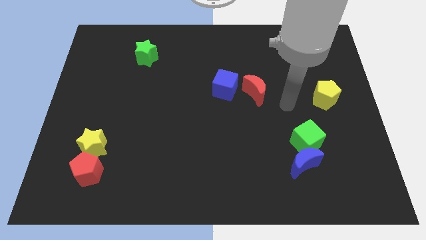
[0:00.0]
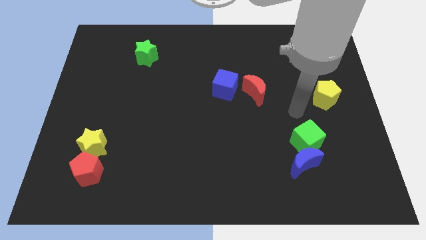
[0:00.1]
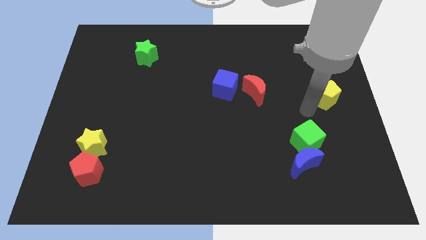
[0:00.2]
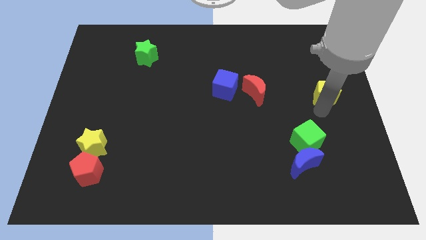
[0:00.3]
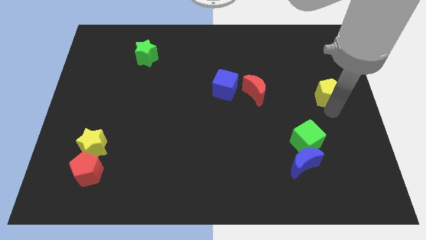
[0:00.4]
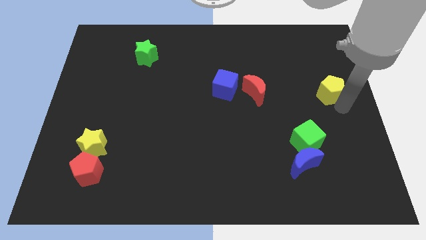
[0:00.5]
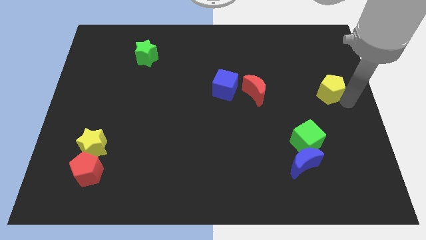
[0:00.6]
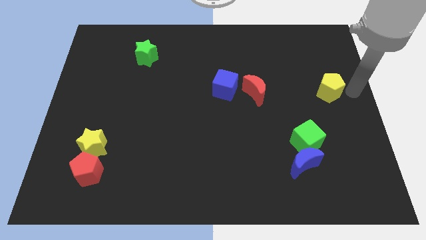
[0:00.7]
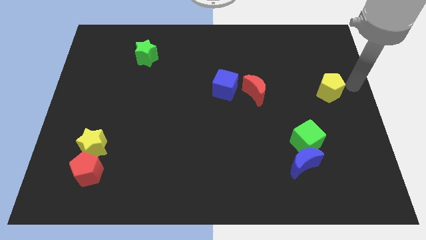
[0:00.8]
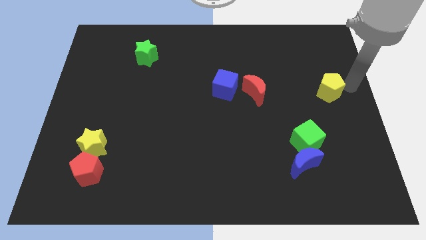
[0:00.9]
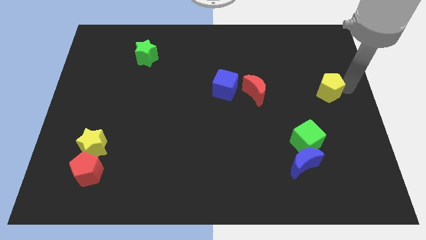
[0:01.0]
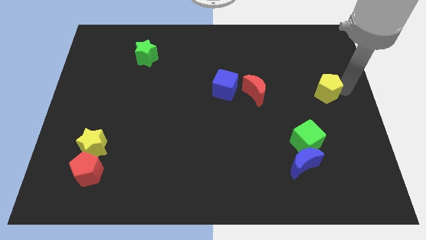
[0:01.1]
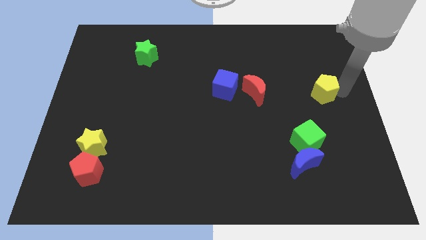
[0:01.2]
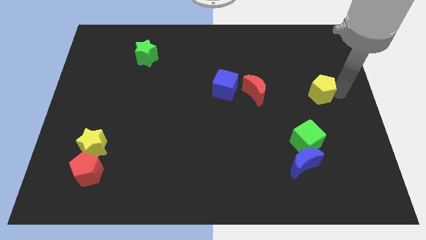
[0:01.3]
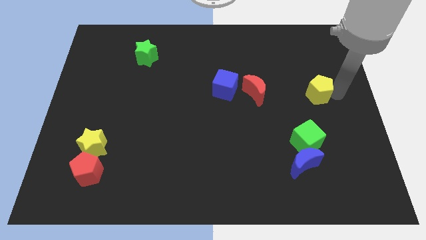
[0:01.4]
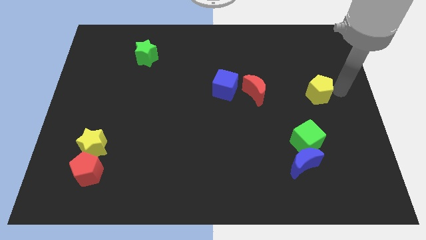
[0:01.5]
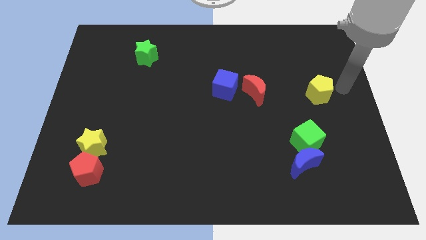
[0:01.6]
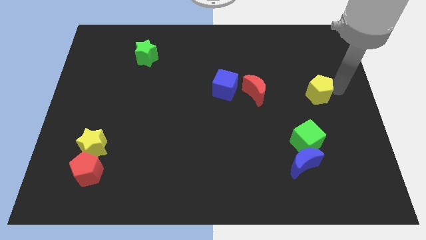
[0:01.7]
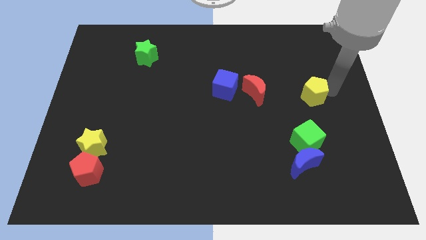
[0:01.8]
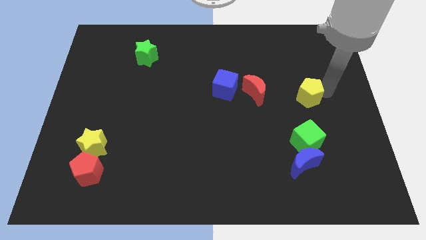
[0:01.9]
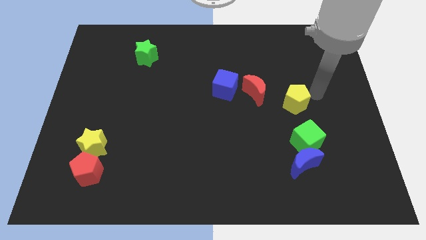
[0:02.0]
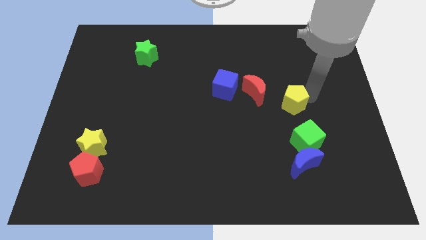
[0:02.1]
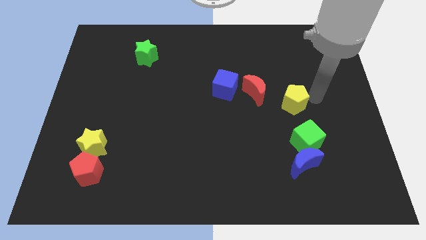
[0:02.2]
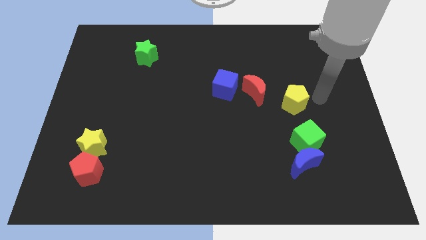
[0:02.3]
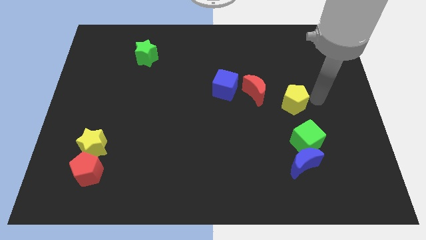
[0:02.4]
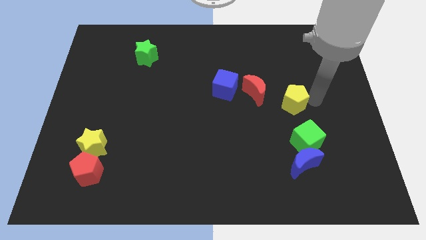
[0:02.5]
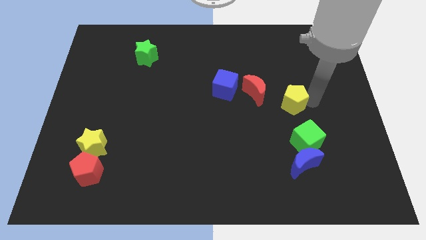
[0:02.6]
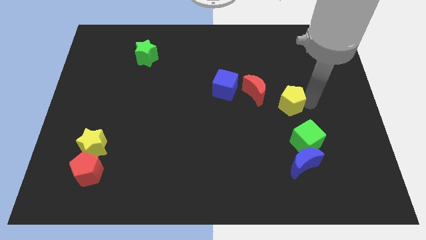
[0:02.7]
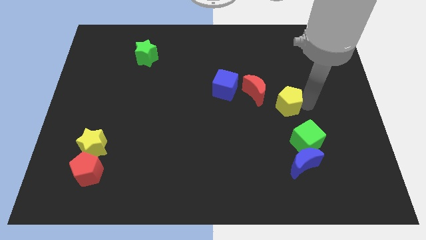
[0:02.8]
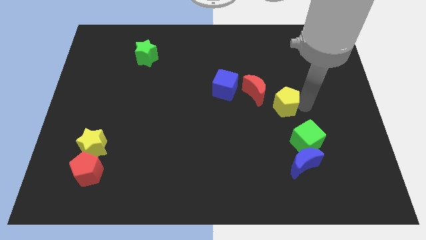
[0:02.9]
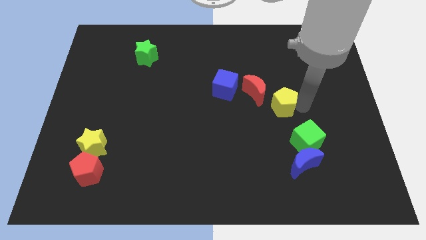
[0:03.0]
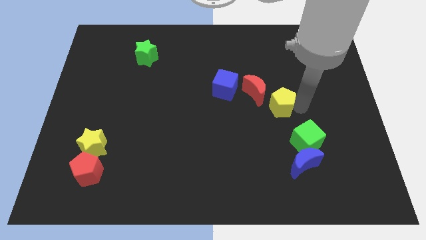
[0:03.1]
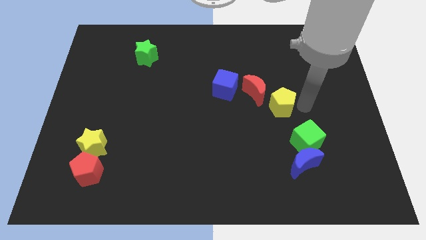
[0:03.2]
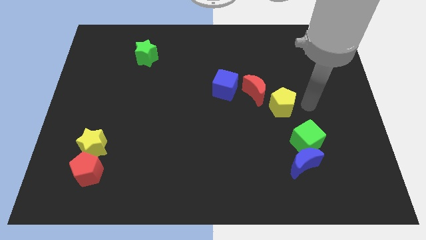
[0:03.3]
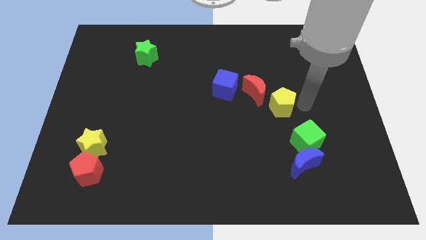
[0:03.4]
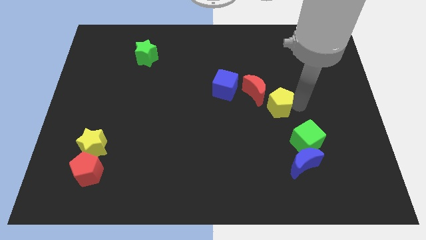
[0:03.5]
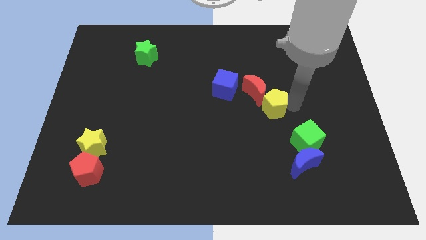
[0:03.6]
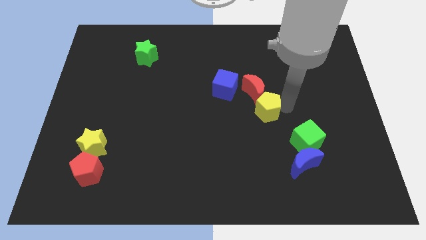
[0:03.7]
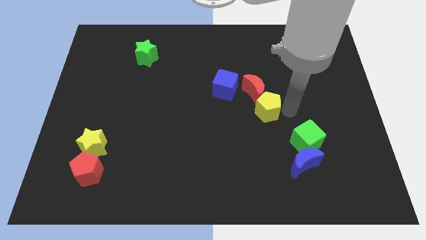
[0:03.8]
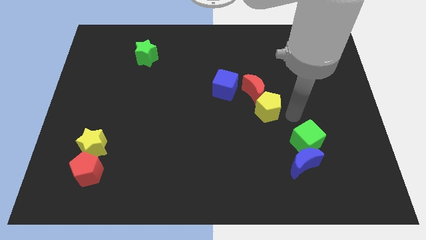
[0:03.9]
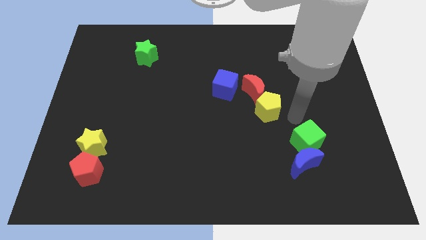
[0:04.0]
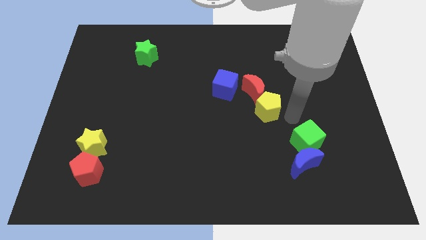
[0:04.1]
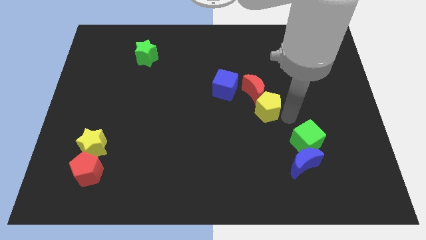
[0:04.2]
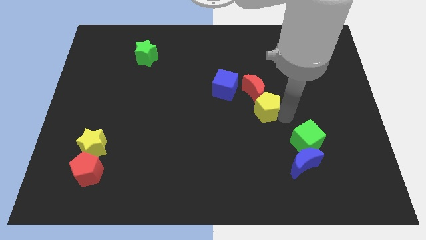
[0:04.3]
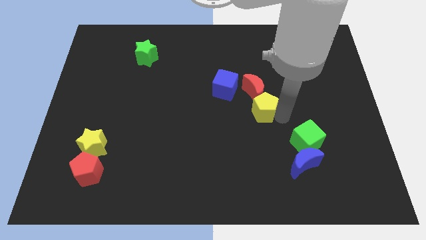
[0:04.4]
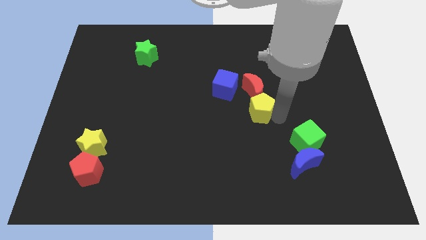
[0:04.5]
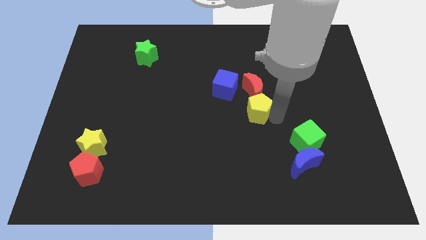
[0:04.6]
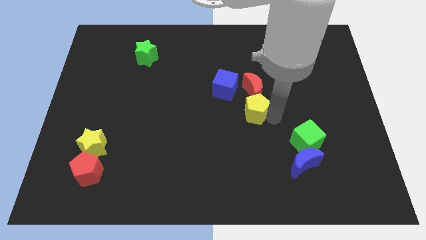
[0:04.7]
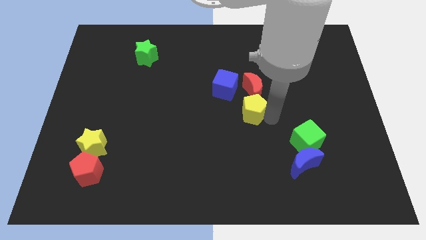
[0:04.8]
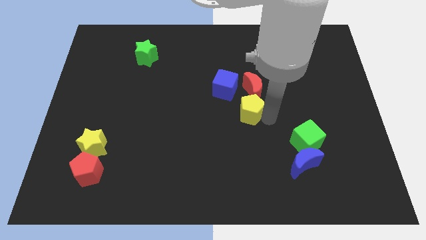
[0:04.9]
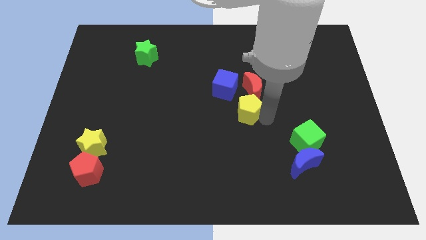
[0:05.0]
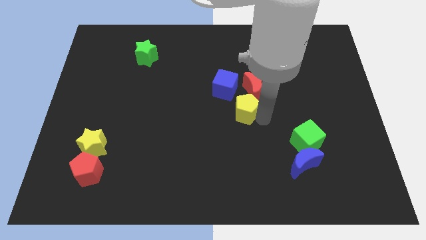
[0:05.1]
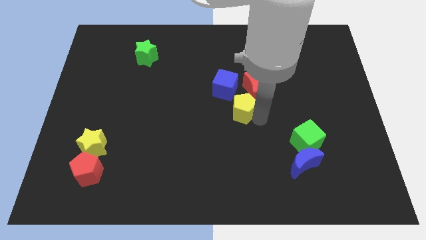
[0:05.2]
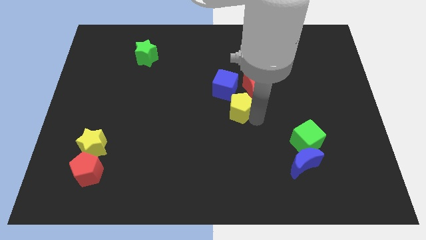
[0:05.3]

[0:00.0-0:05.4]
slide the yellow pentagon to the left

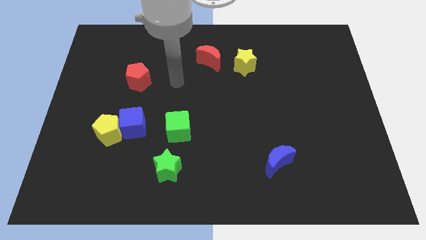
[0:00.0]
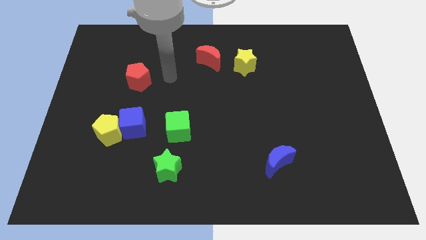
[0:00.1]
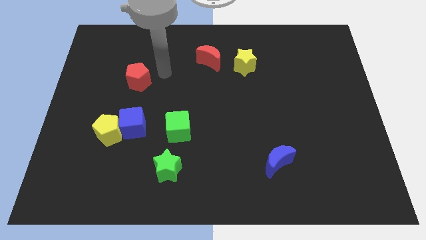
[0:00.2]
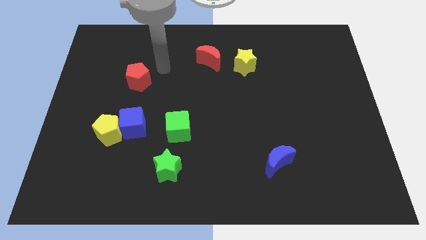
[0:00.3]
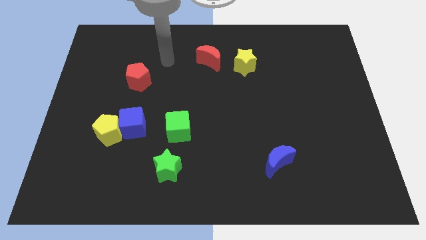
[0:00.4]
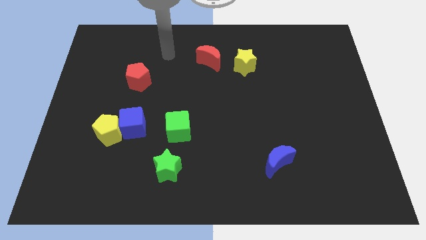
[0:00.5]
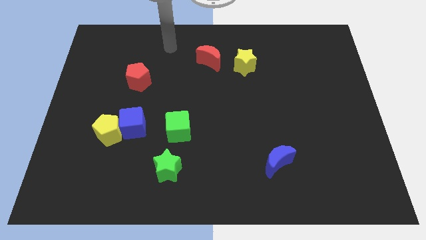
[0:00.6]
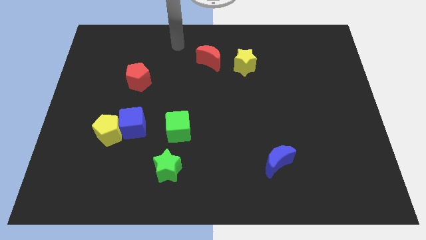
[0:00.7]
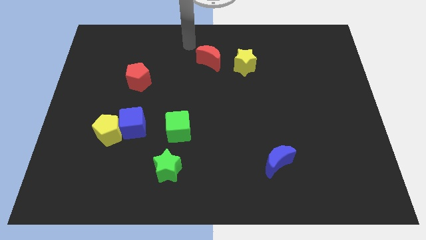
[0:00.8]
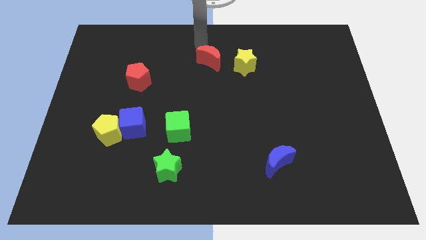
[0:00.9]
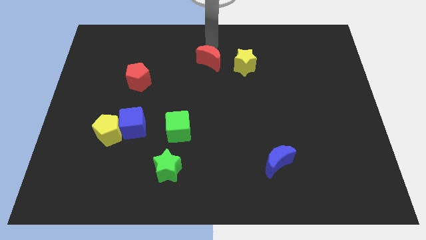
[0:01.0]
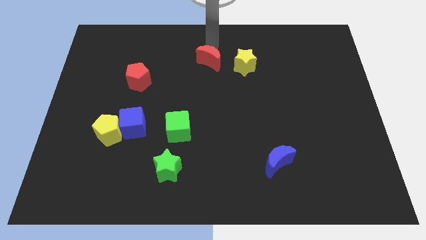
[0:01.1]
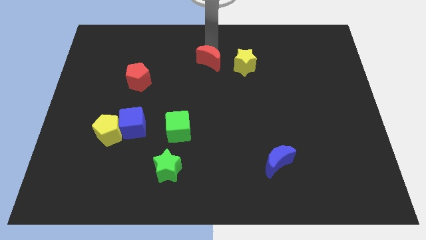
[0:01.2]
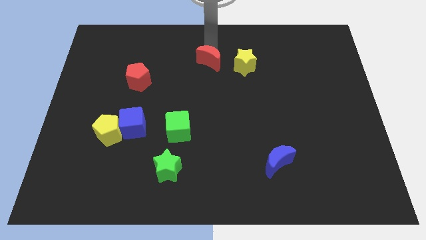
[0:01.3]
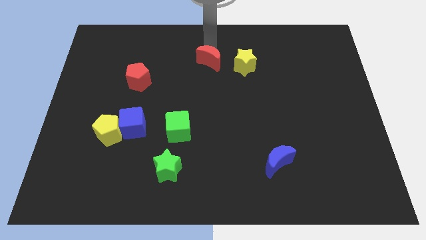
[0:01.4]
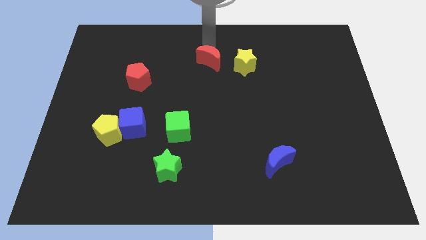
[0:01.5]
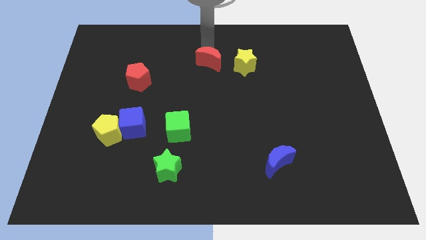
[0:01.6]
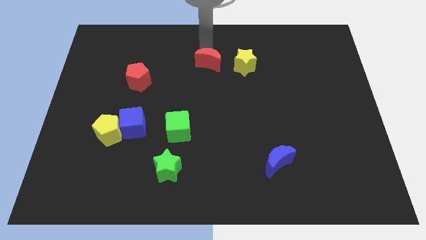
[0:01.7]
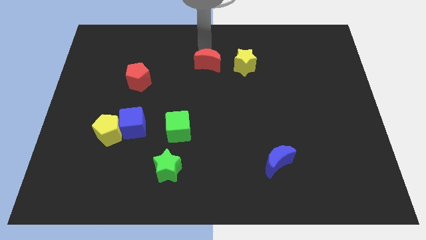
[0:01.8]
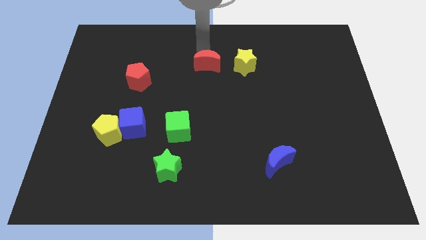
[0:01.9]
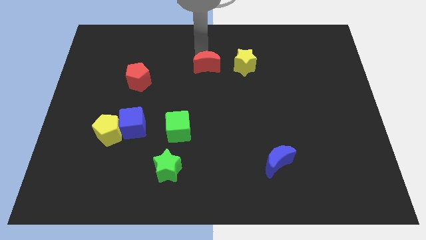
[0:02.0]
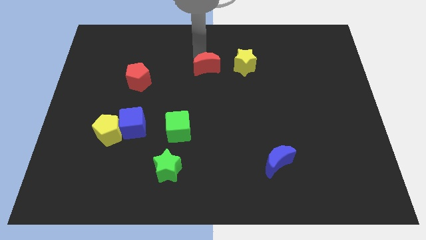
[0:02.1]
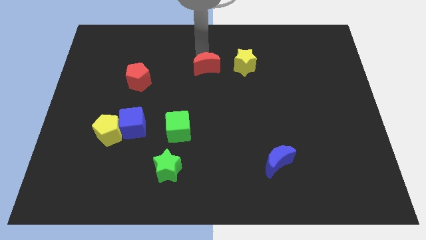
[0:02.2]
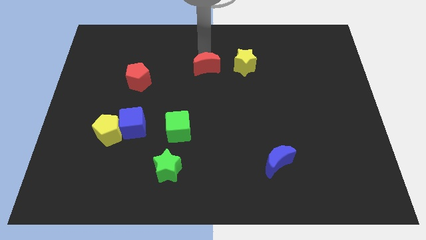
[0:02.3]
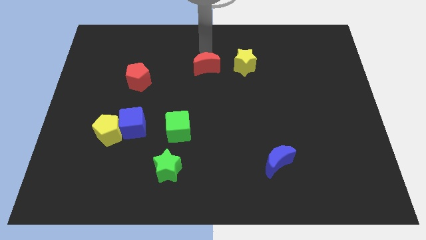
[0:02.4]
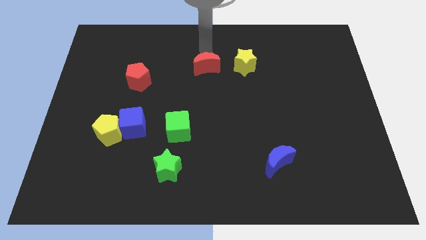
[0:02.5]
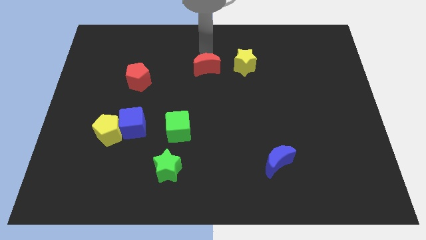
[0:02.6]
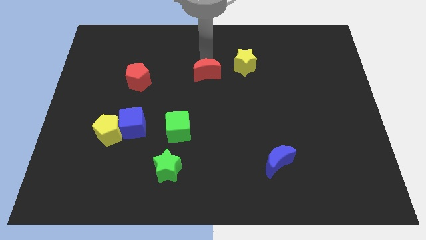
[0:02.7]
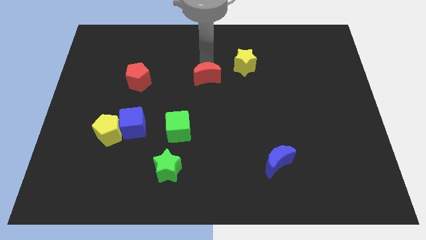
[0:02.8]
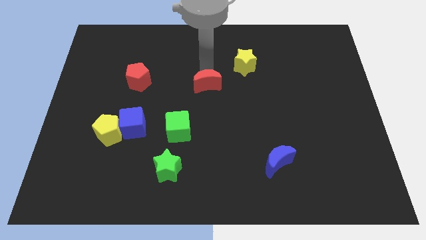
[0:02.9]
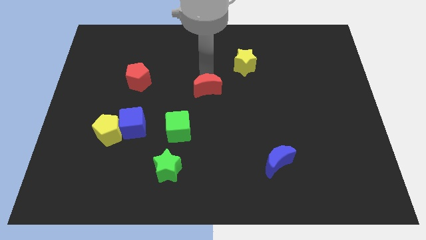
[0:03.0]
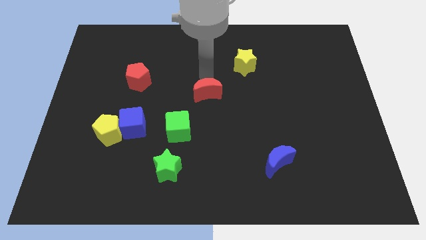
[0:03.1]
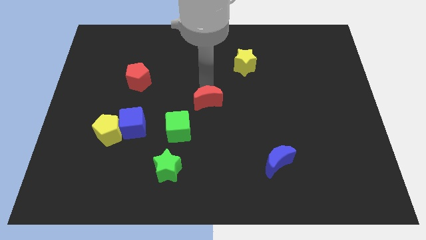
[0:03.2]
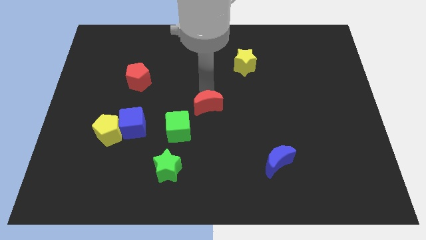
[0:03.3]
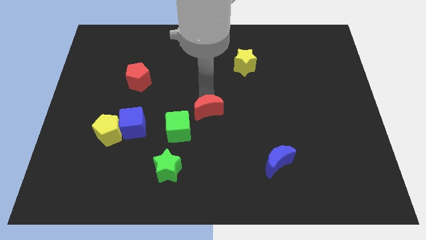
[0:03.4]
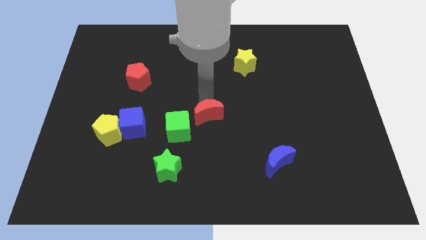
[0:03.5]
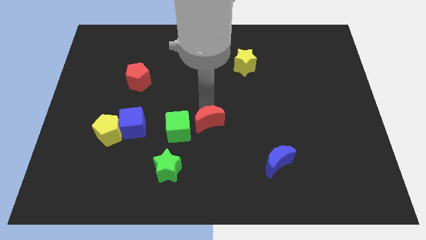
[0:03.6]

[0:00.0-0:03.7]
move the red moon down
